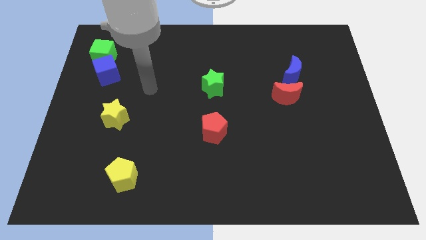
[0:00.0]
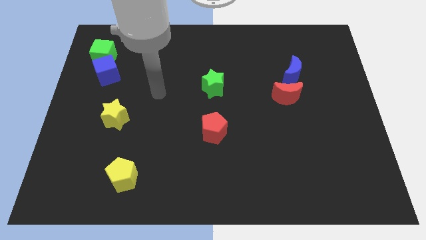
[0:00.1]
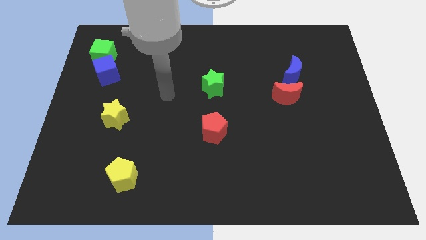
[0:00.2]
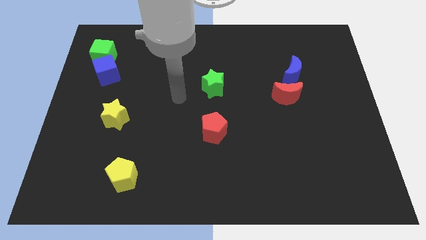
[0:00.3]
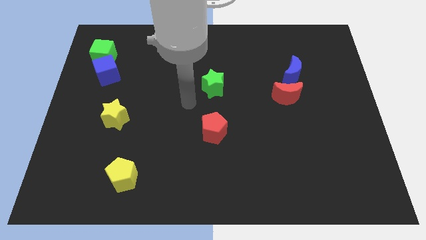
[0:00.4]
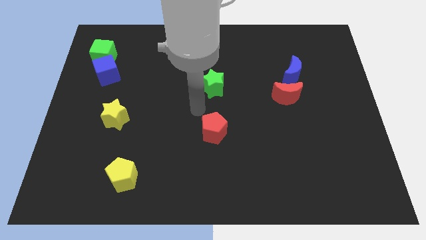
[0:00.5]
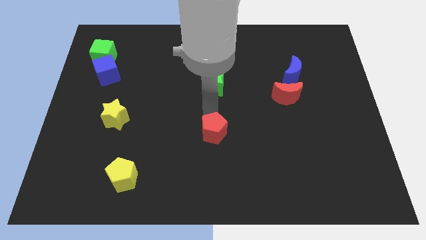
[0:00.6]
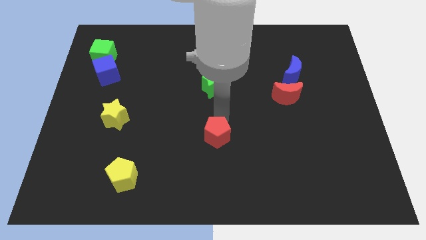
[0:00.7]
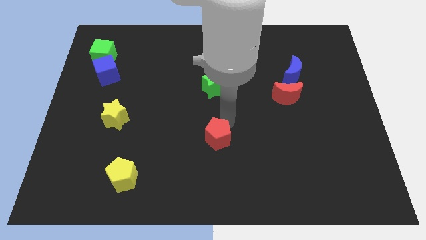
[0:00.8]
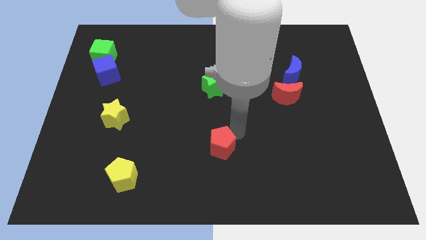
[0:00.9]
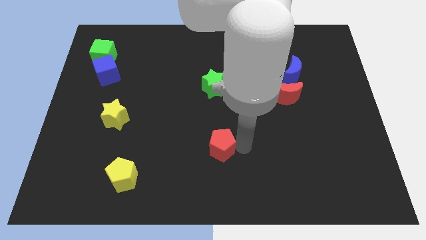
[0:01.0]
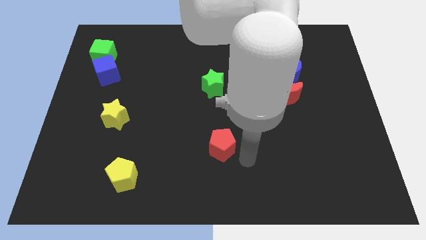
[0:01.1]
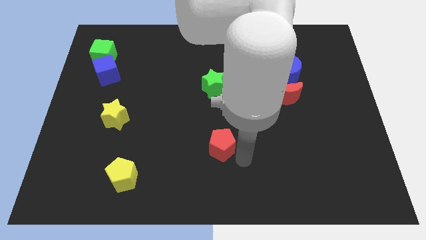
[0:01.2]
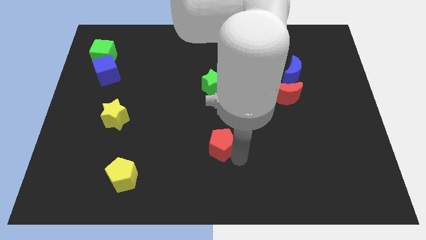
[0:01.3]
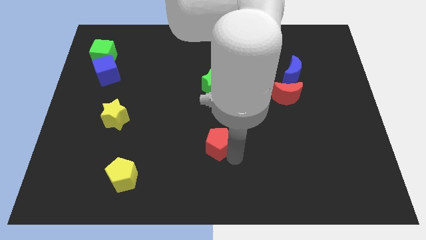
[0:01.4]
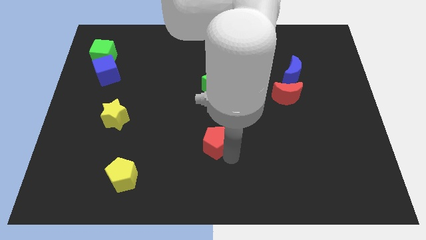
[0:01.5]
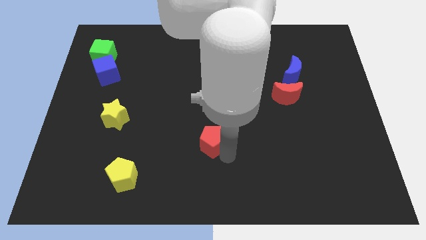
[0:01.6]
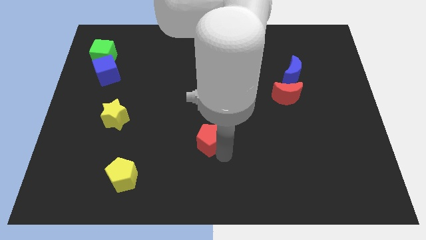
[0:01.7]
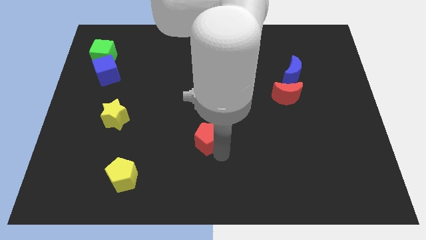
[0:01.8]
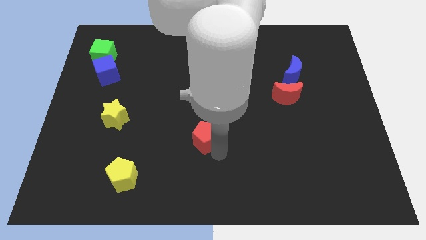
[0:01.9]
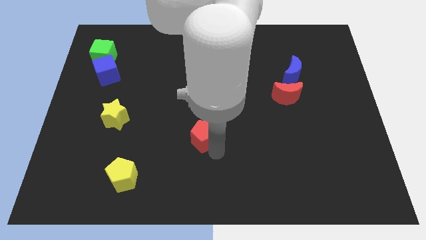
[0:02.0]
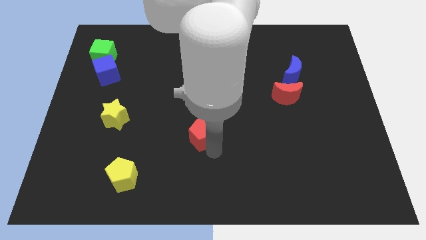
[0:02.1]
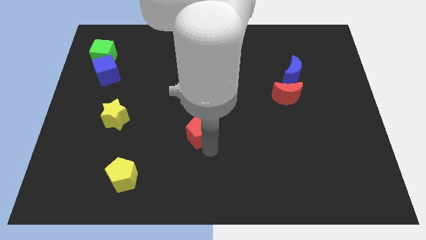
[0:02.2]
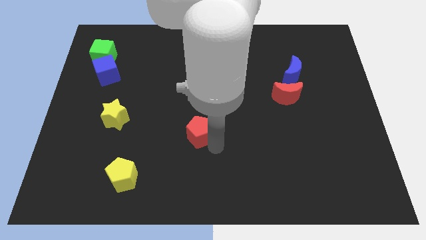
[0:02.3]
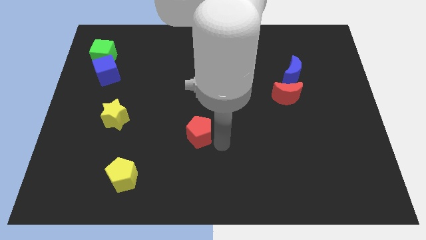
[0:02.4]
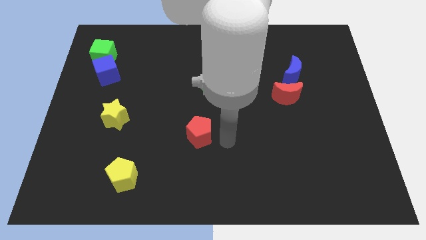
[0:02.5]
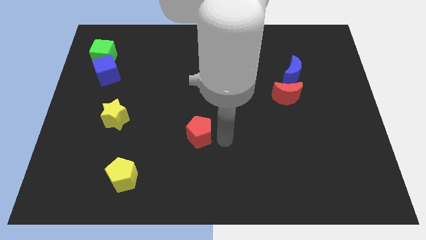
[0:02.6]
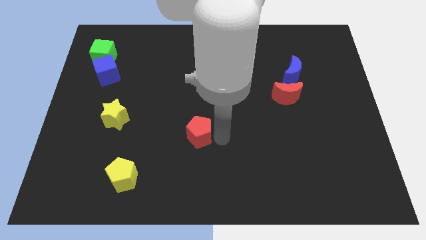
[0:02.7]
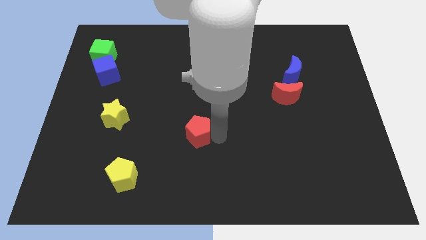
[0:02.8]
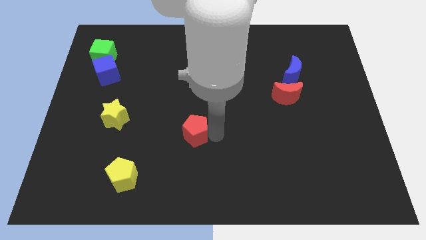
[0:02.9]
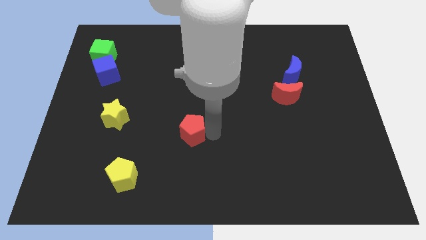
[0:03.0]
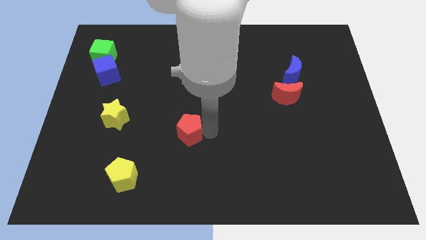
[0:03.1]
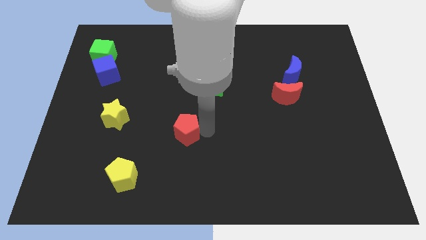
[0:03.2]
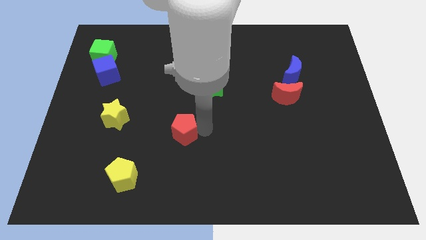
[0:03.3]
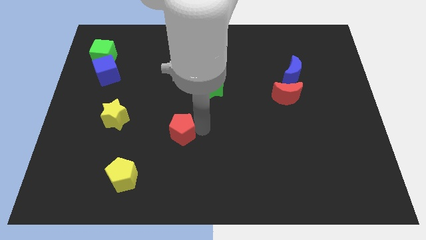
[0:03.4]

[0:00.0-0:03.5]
slightly slide the red pentagon to the left

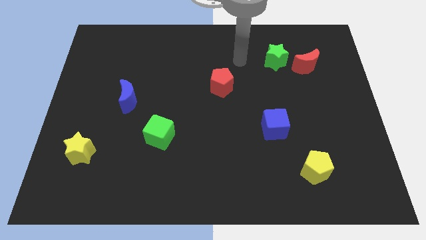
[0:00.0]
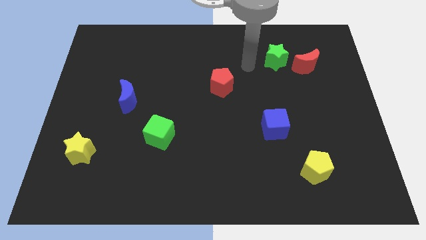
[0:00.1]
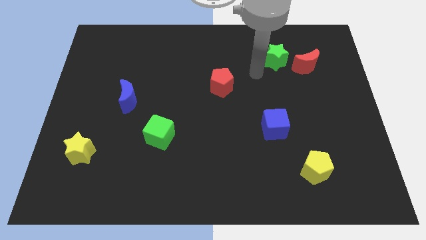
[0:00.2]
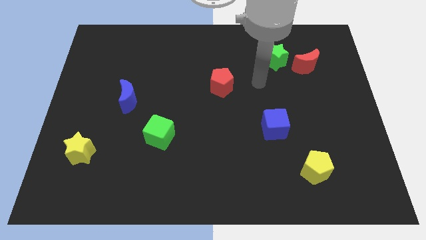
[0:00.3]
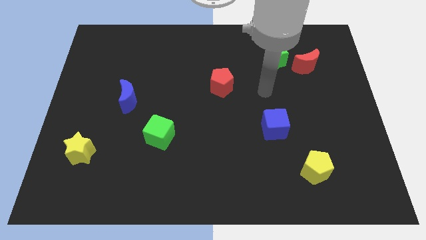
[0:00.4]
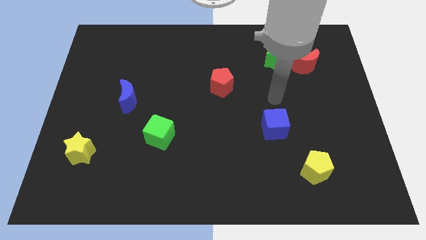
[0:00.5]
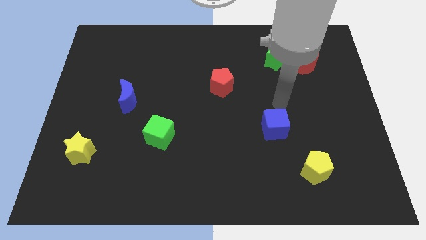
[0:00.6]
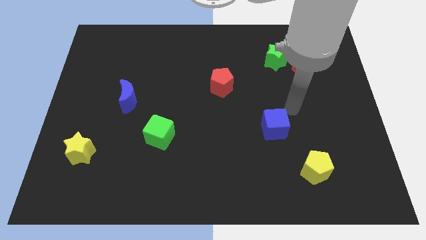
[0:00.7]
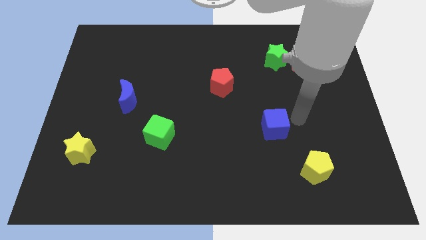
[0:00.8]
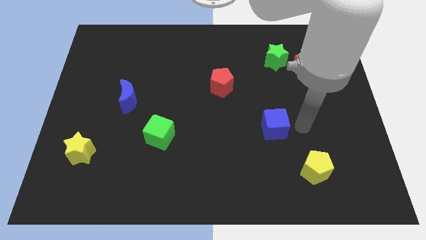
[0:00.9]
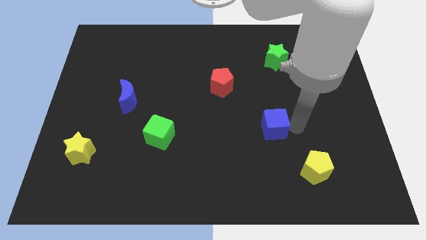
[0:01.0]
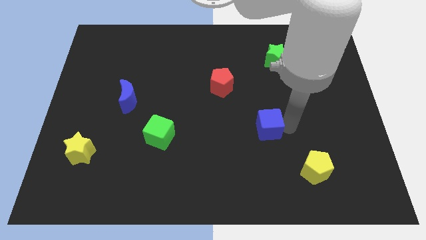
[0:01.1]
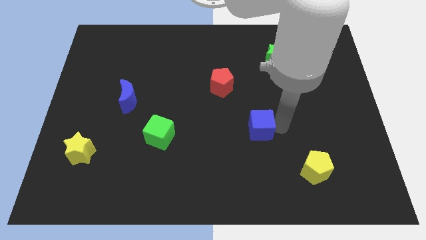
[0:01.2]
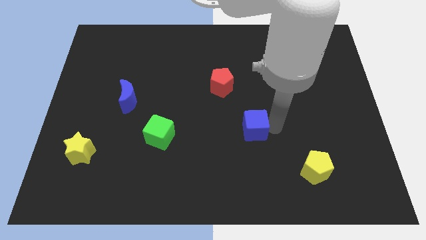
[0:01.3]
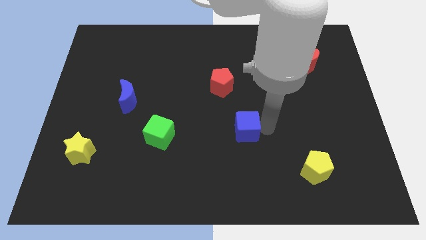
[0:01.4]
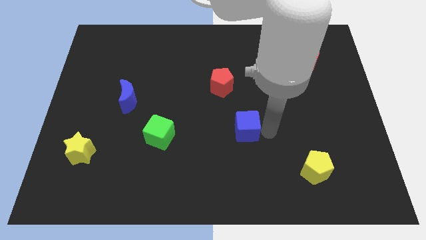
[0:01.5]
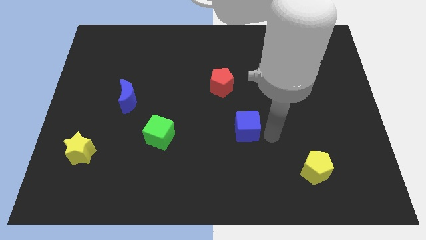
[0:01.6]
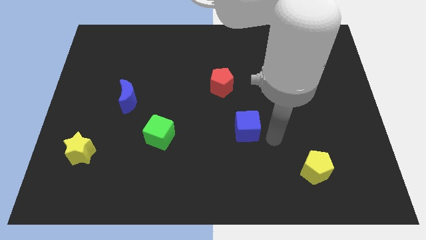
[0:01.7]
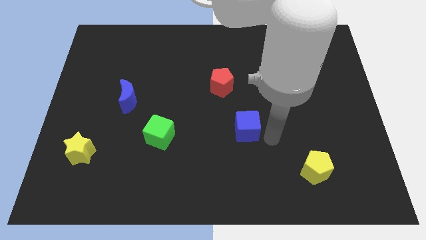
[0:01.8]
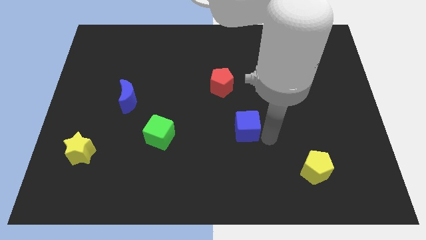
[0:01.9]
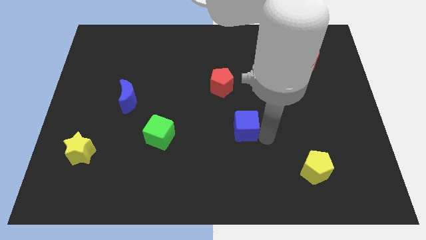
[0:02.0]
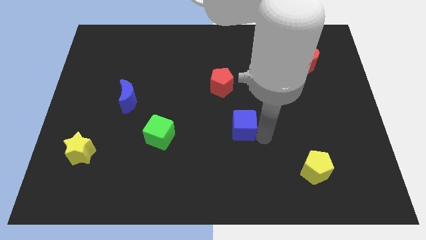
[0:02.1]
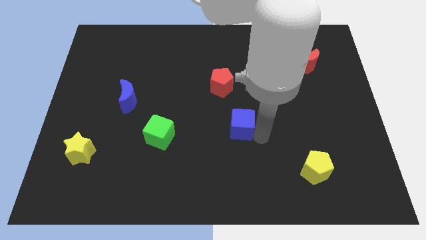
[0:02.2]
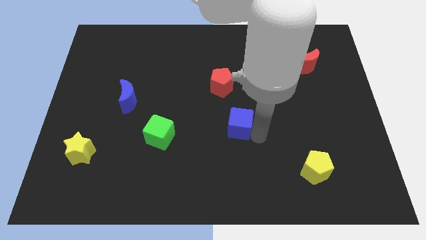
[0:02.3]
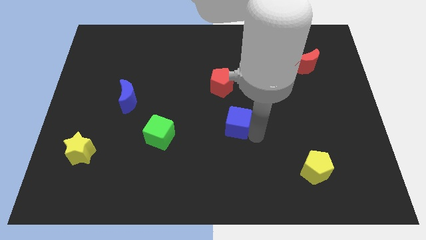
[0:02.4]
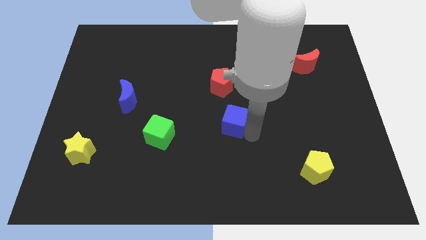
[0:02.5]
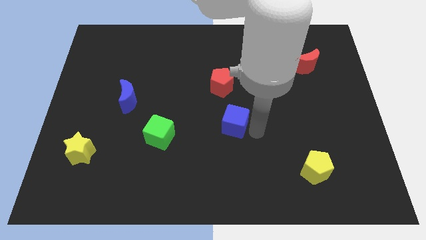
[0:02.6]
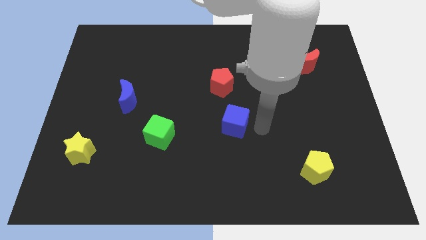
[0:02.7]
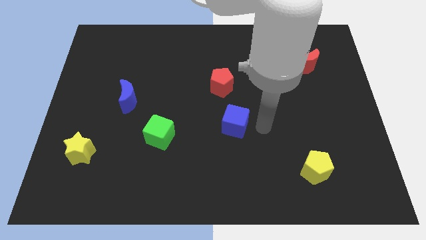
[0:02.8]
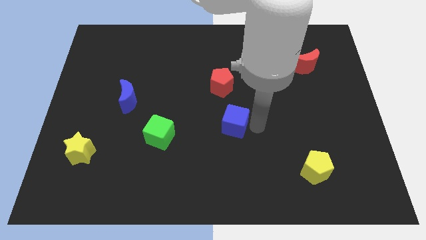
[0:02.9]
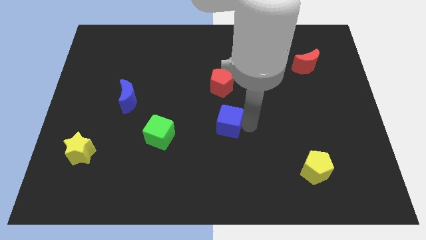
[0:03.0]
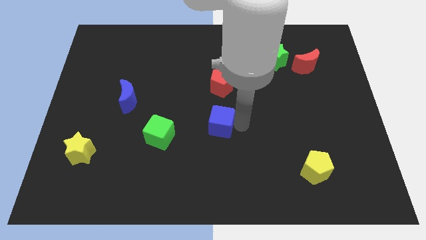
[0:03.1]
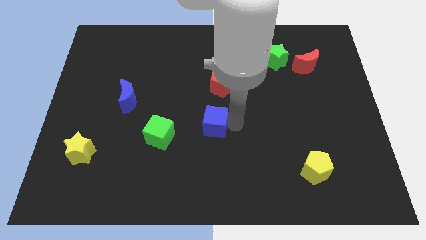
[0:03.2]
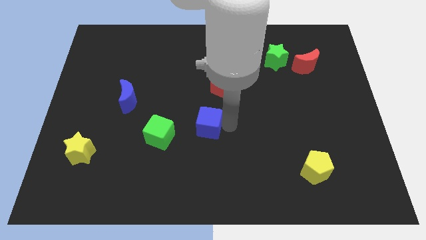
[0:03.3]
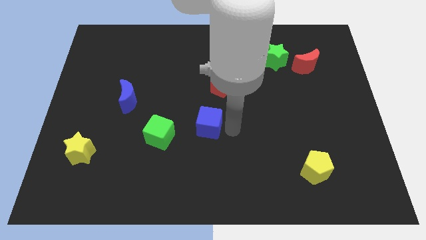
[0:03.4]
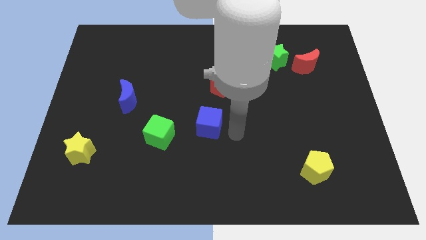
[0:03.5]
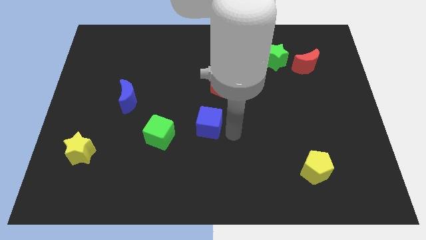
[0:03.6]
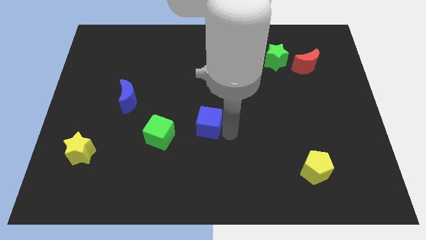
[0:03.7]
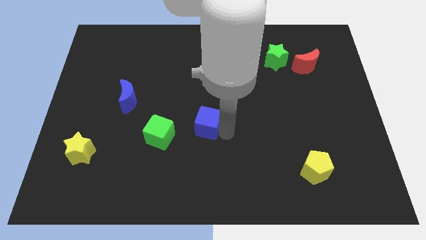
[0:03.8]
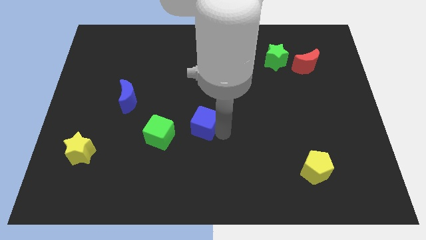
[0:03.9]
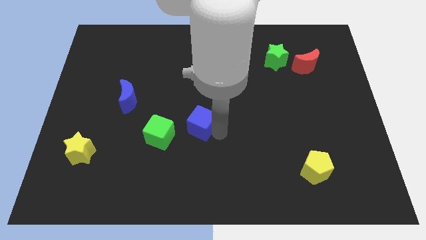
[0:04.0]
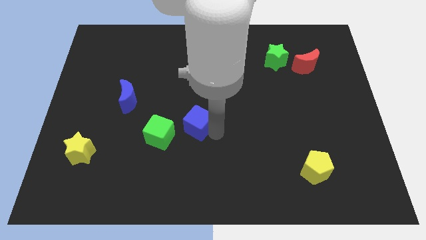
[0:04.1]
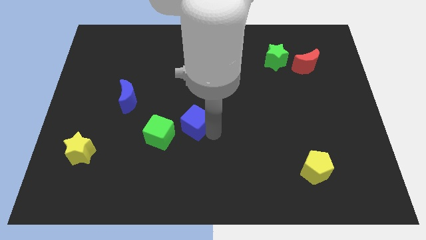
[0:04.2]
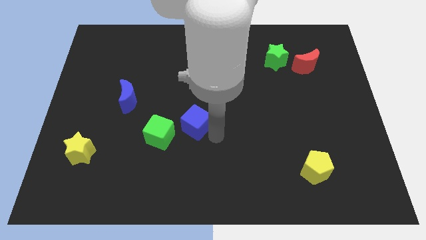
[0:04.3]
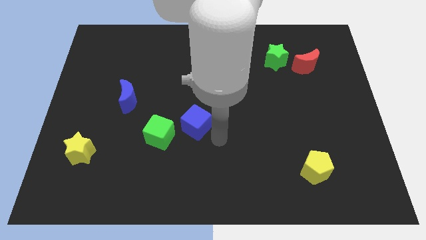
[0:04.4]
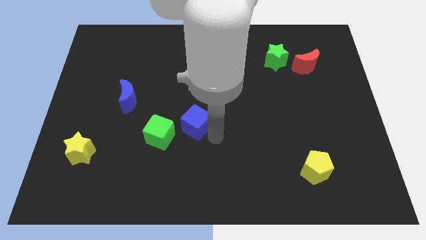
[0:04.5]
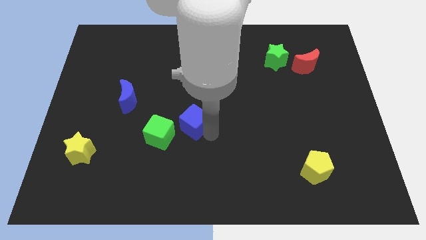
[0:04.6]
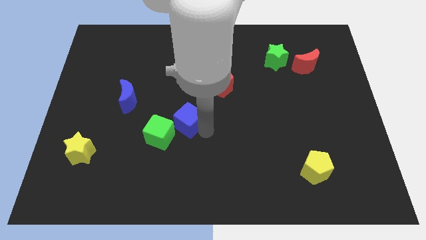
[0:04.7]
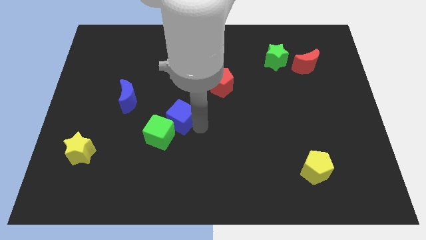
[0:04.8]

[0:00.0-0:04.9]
move the blue cube left
